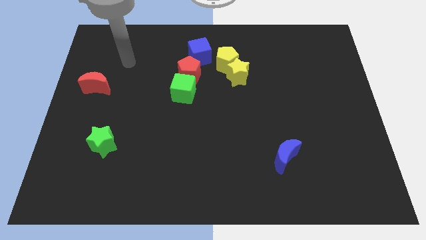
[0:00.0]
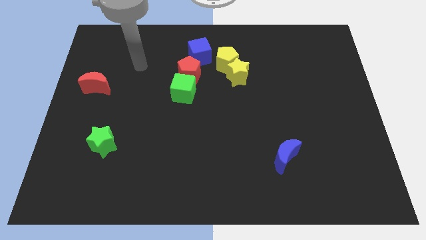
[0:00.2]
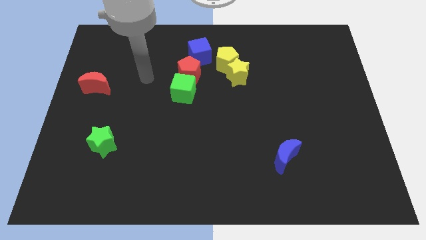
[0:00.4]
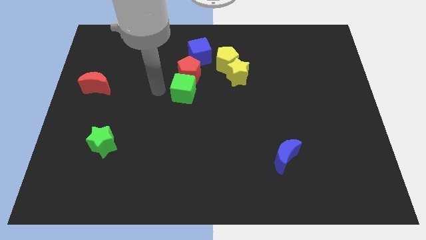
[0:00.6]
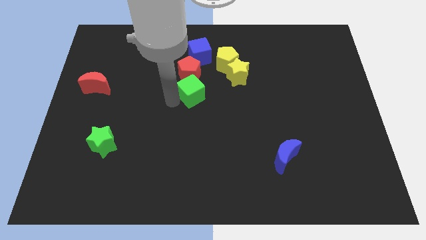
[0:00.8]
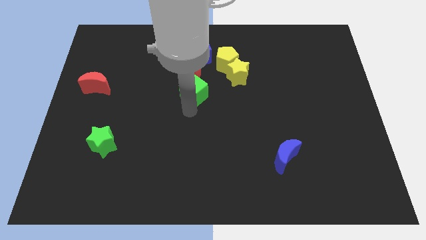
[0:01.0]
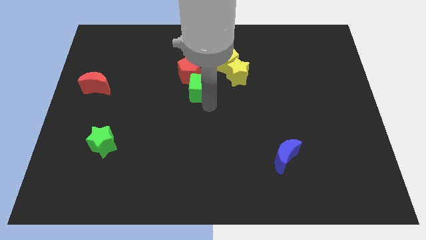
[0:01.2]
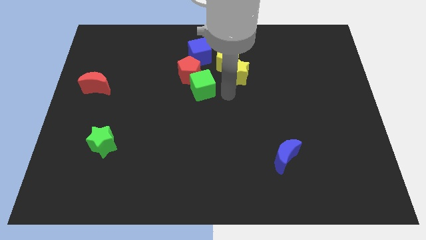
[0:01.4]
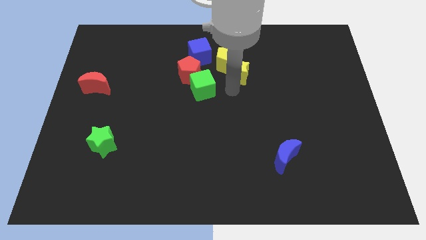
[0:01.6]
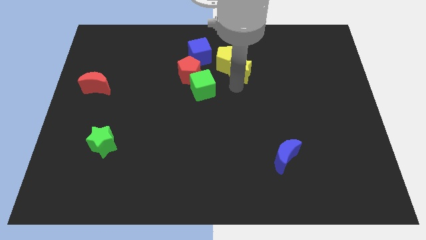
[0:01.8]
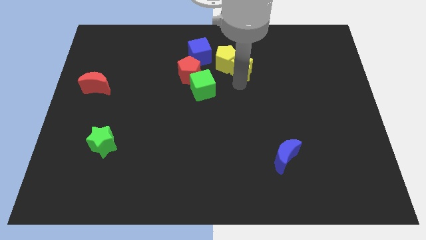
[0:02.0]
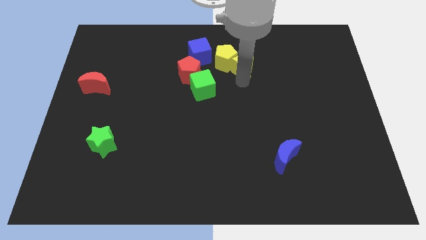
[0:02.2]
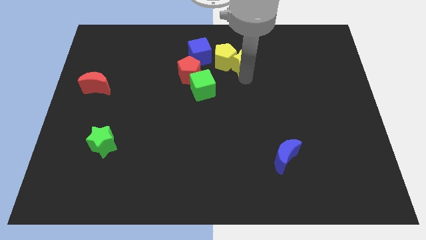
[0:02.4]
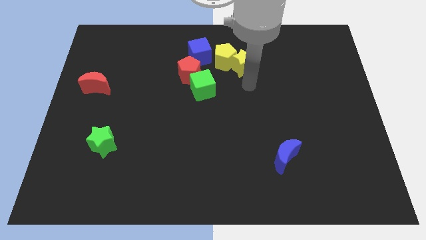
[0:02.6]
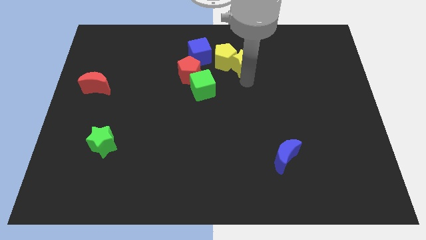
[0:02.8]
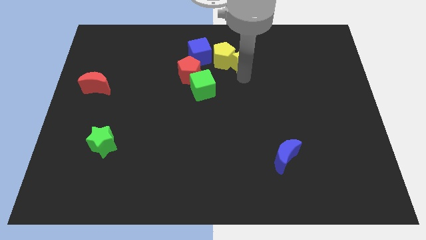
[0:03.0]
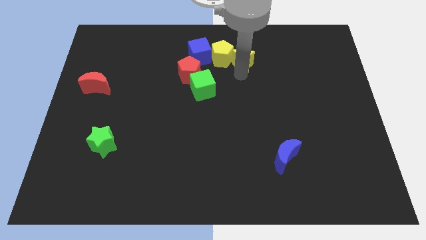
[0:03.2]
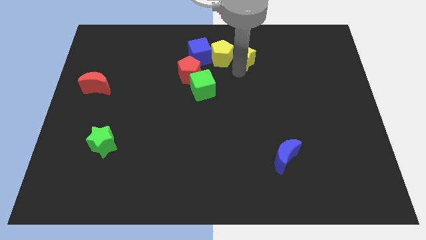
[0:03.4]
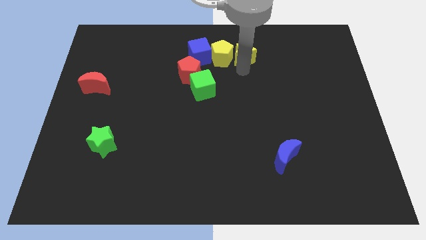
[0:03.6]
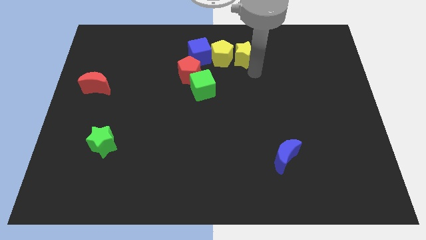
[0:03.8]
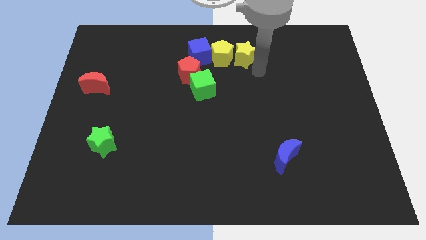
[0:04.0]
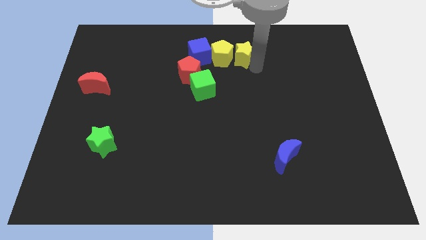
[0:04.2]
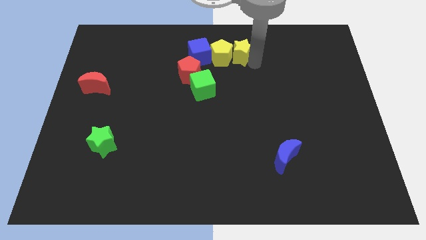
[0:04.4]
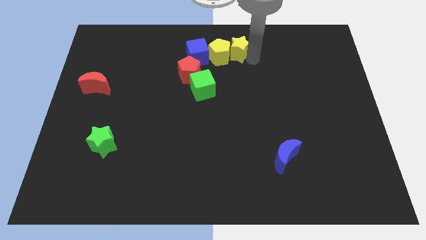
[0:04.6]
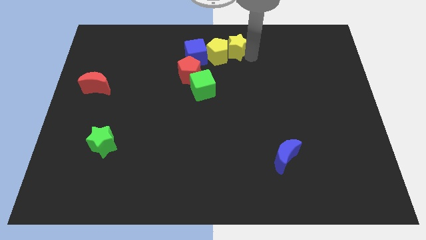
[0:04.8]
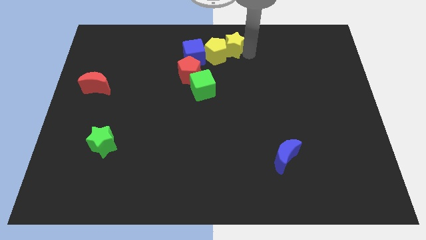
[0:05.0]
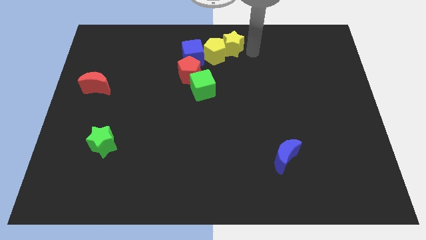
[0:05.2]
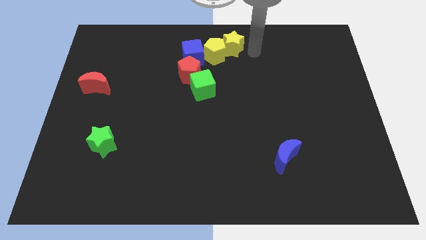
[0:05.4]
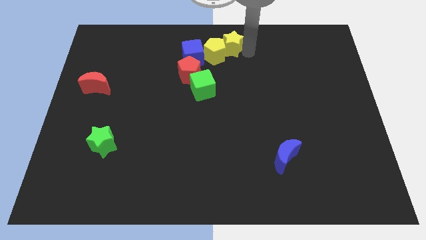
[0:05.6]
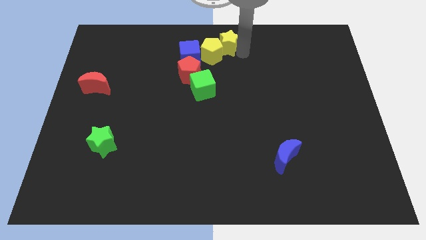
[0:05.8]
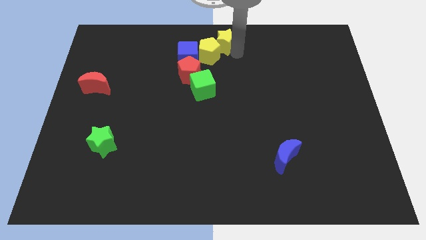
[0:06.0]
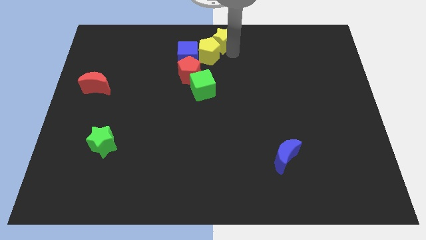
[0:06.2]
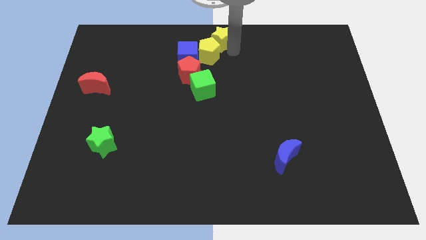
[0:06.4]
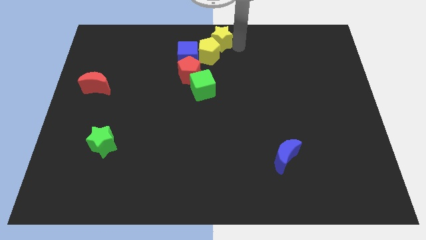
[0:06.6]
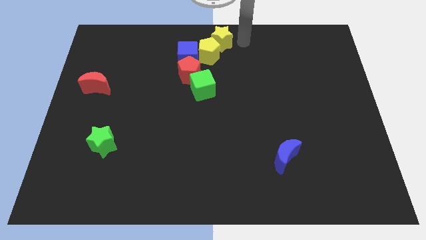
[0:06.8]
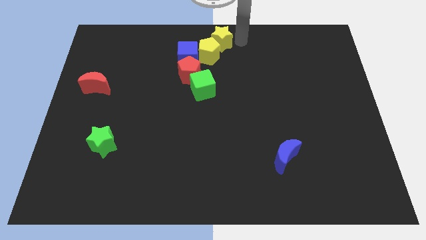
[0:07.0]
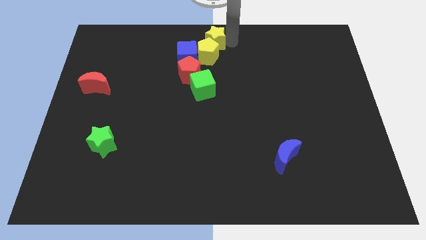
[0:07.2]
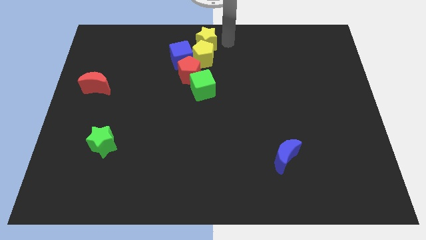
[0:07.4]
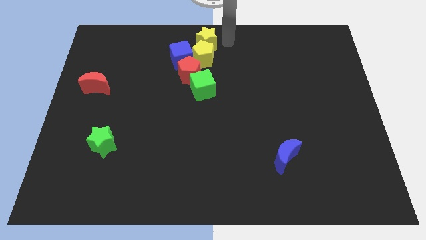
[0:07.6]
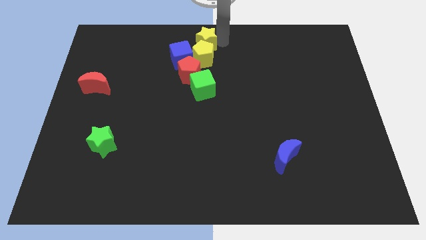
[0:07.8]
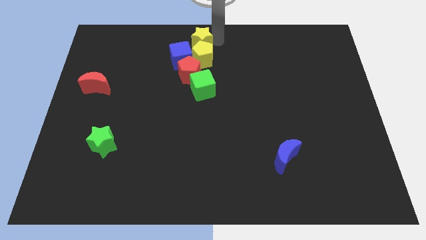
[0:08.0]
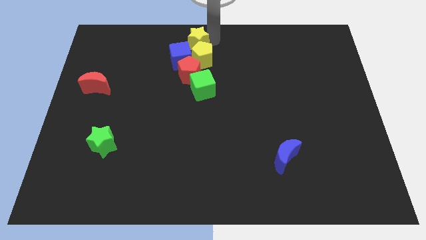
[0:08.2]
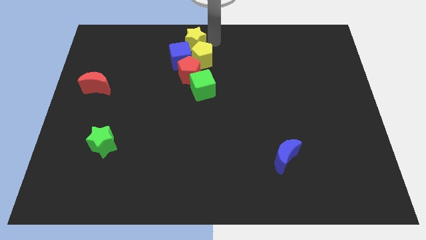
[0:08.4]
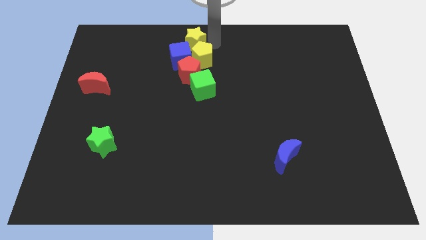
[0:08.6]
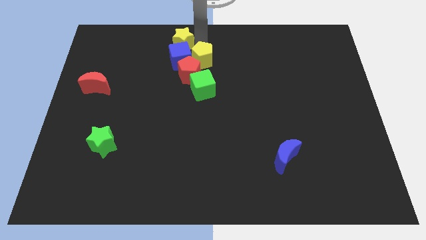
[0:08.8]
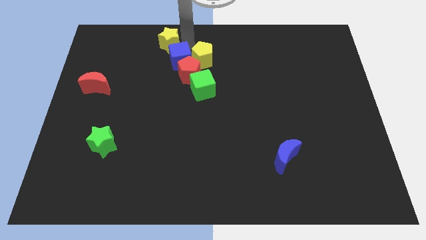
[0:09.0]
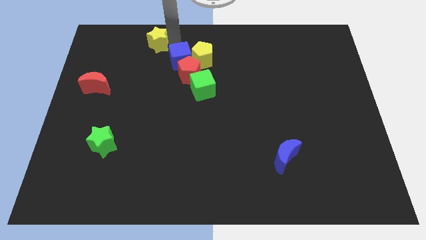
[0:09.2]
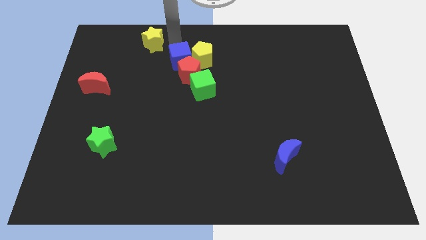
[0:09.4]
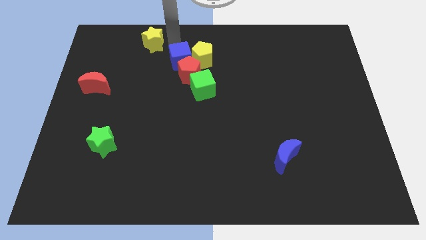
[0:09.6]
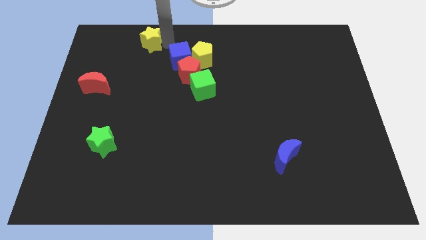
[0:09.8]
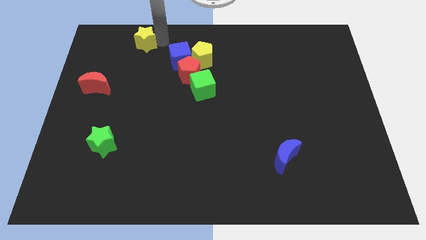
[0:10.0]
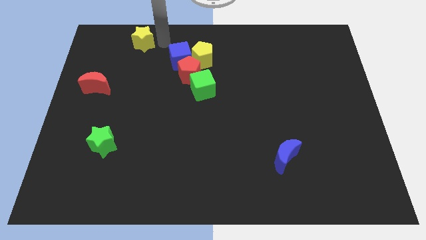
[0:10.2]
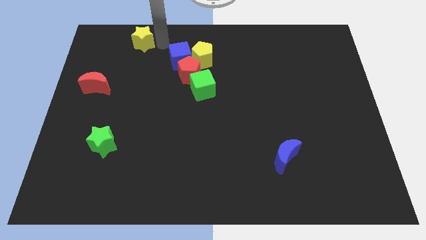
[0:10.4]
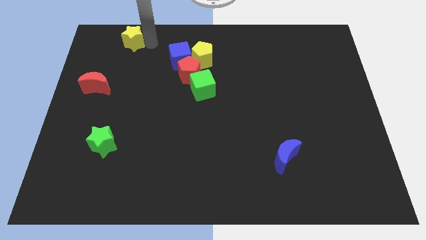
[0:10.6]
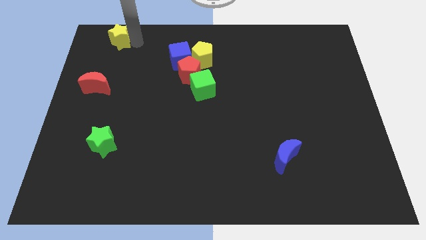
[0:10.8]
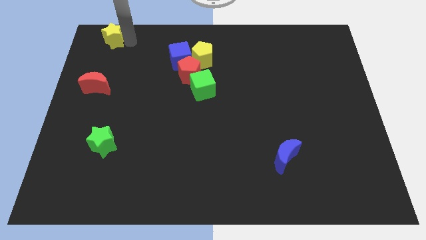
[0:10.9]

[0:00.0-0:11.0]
put the yellow star to the top left
